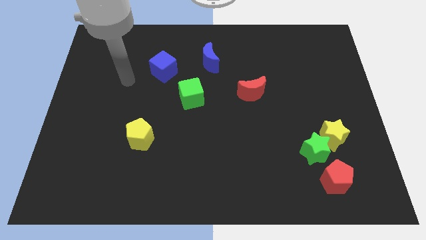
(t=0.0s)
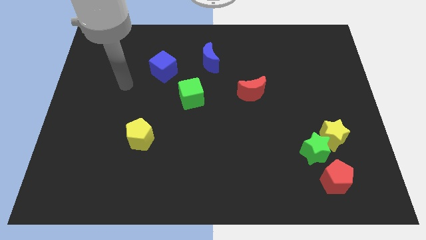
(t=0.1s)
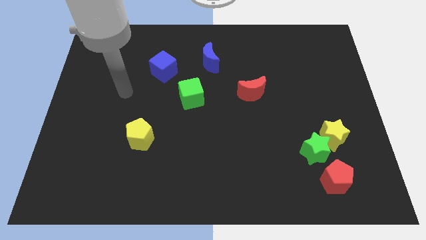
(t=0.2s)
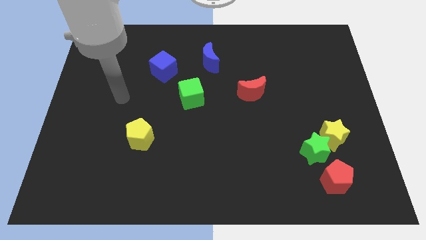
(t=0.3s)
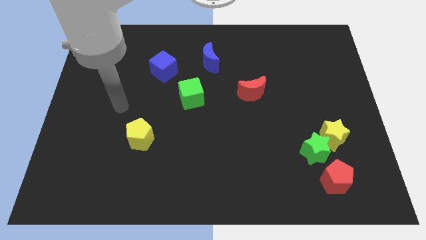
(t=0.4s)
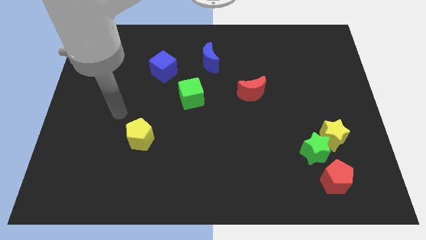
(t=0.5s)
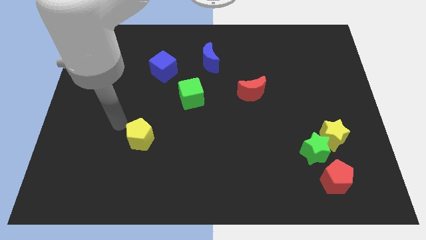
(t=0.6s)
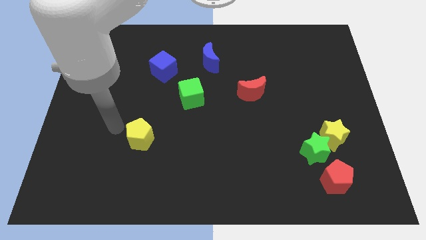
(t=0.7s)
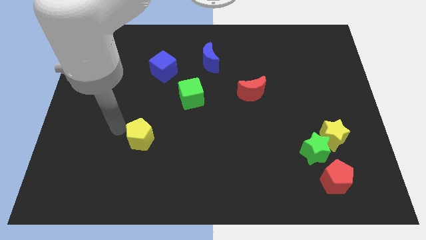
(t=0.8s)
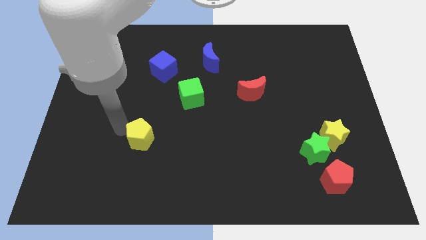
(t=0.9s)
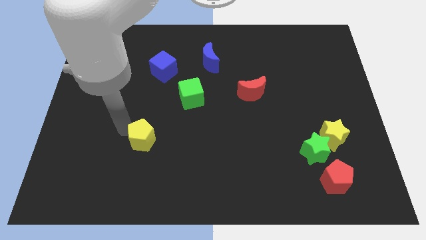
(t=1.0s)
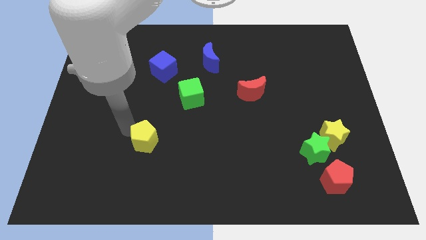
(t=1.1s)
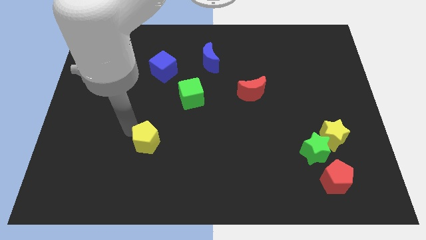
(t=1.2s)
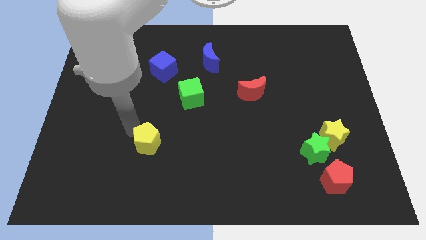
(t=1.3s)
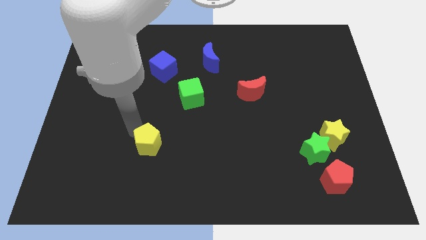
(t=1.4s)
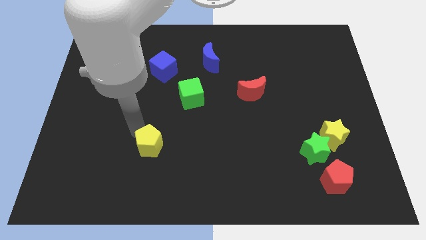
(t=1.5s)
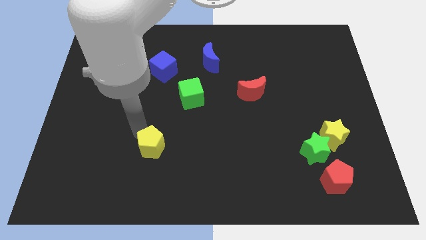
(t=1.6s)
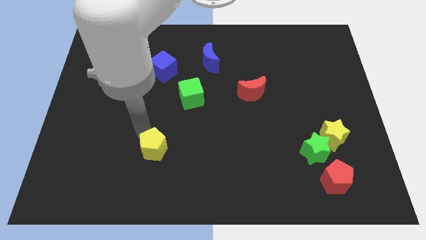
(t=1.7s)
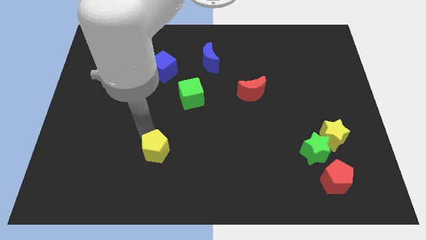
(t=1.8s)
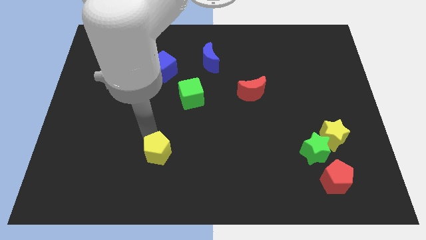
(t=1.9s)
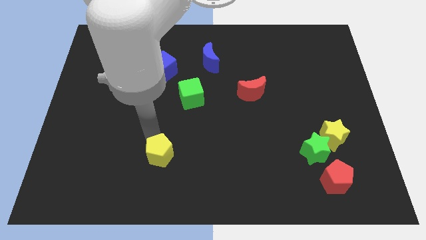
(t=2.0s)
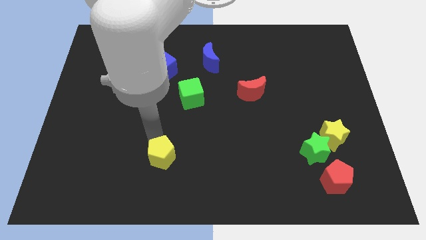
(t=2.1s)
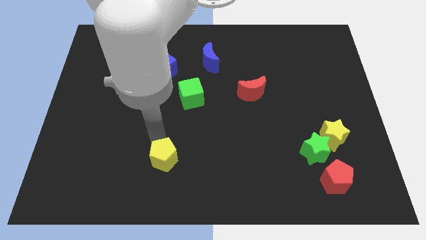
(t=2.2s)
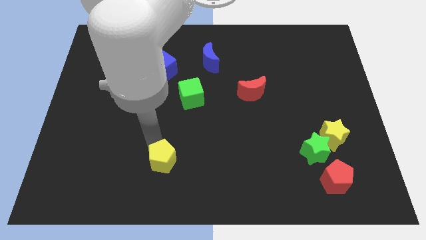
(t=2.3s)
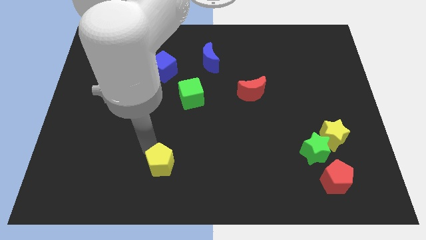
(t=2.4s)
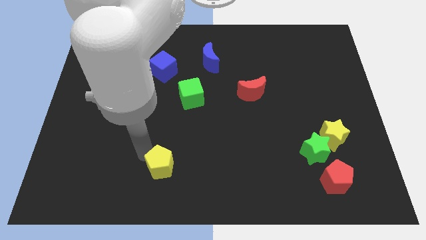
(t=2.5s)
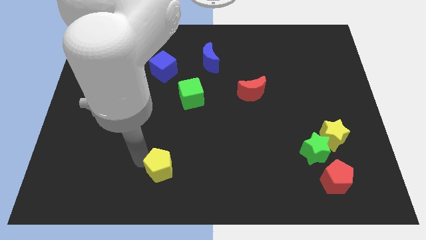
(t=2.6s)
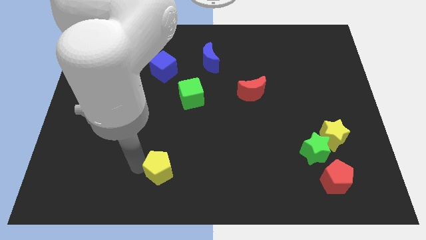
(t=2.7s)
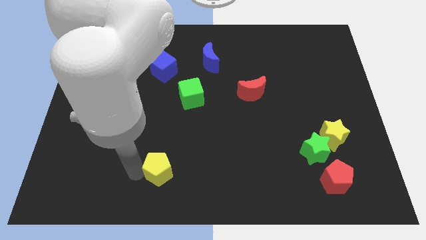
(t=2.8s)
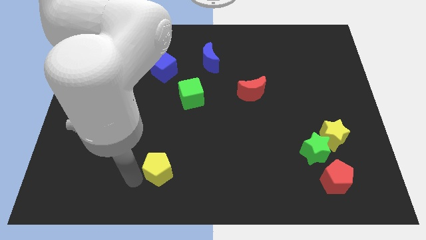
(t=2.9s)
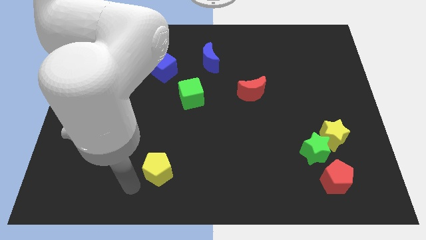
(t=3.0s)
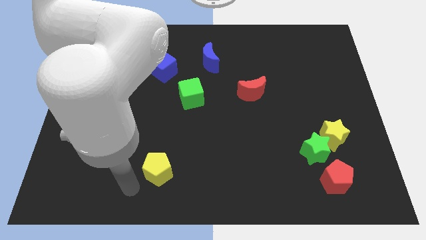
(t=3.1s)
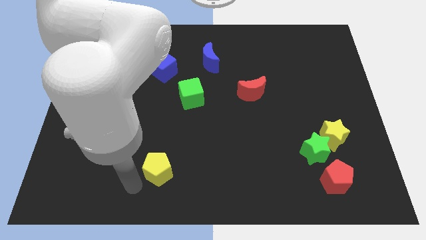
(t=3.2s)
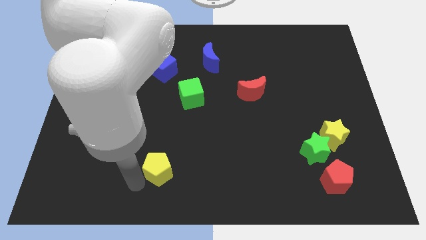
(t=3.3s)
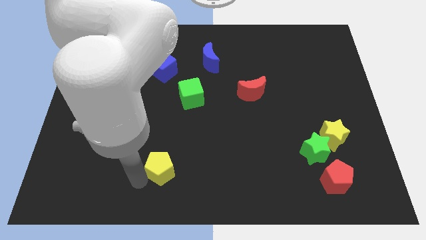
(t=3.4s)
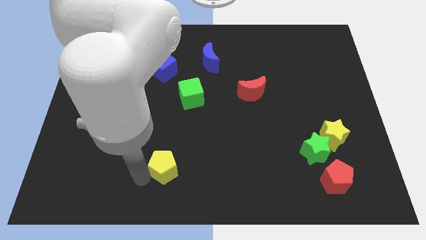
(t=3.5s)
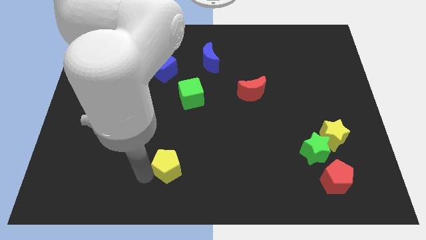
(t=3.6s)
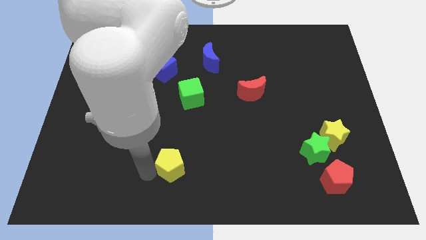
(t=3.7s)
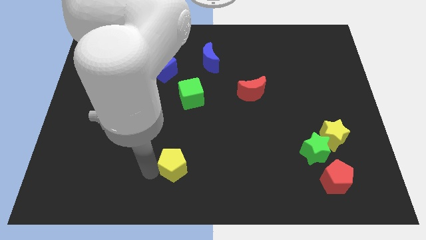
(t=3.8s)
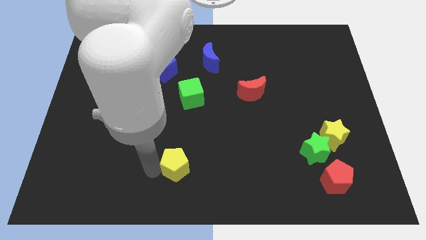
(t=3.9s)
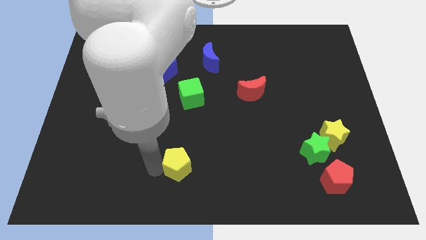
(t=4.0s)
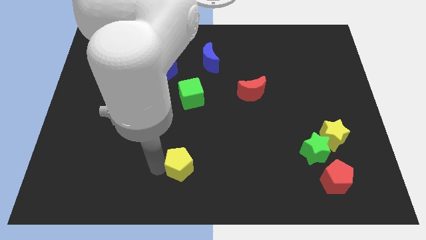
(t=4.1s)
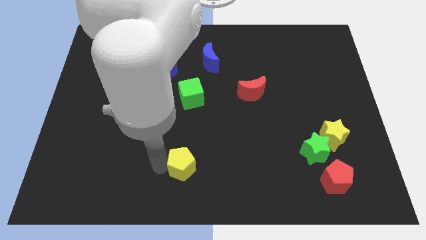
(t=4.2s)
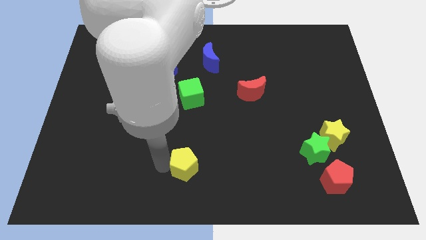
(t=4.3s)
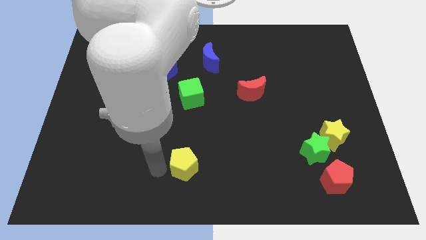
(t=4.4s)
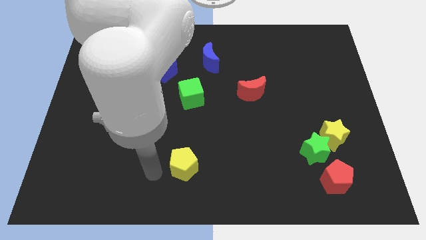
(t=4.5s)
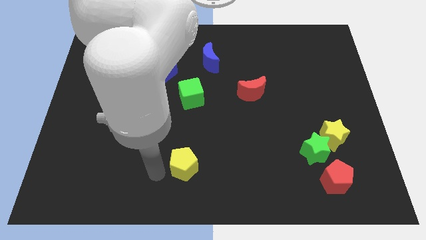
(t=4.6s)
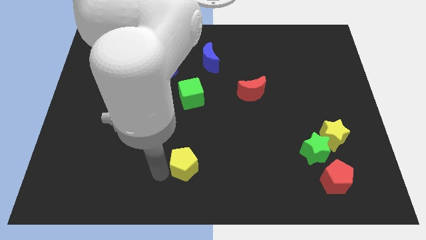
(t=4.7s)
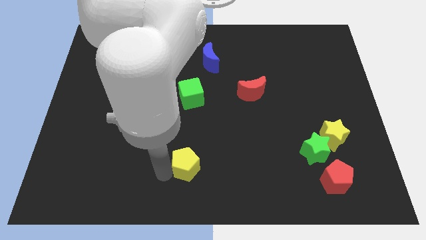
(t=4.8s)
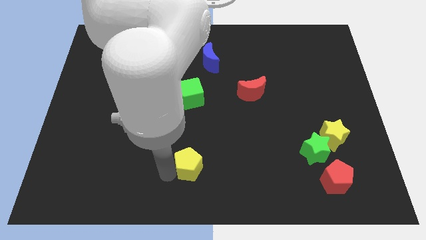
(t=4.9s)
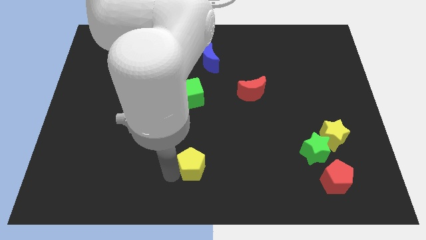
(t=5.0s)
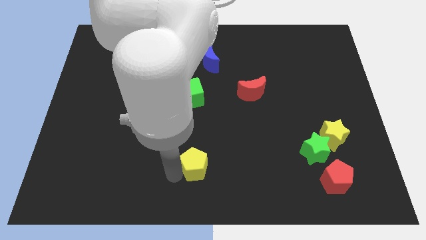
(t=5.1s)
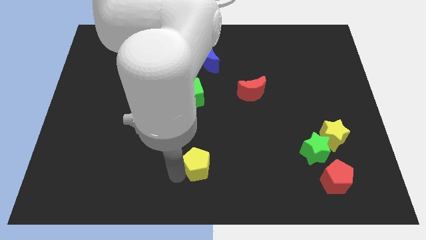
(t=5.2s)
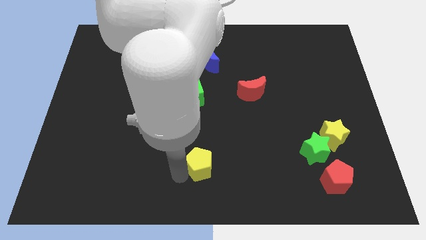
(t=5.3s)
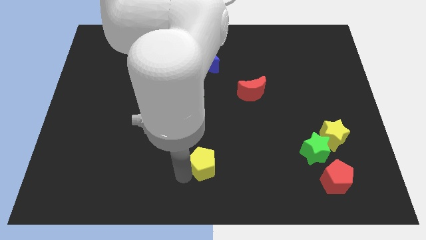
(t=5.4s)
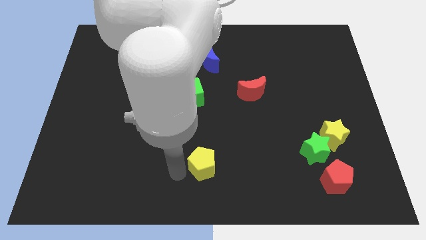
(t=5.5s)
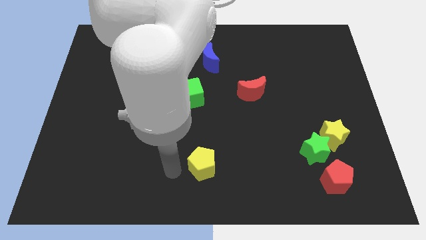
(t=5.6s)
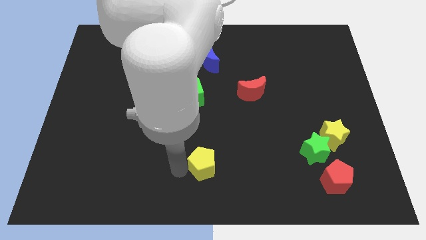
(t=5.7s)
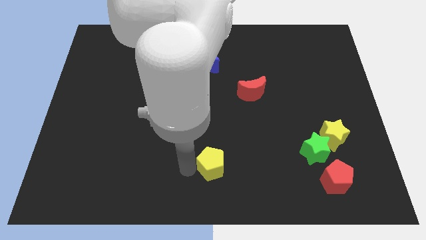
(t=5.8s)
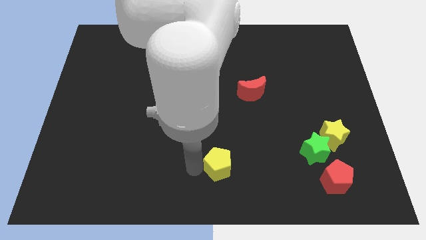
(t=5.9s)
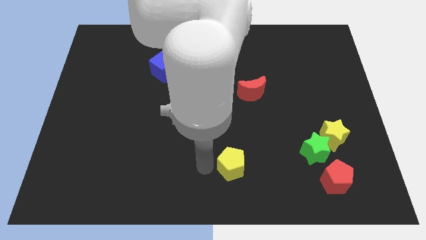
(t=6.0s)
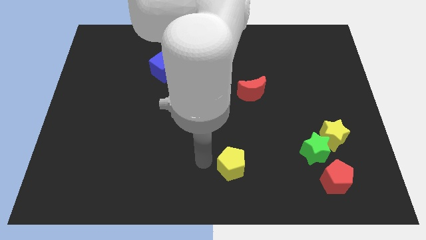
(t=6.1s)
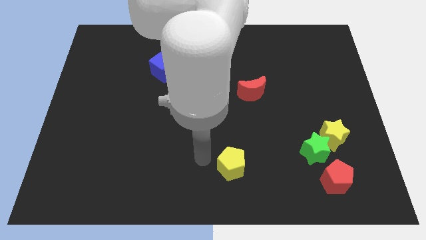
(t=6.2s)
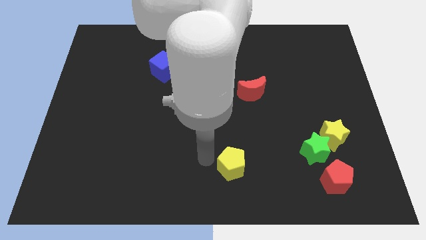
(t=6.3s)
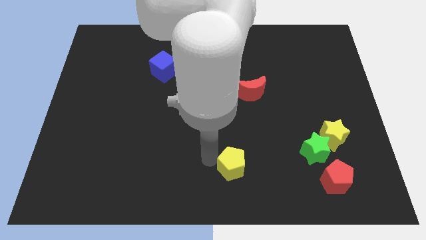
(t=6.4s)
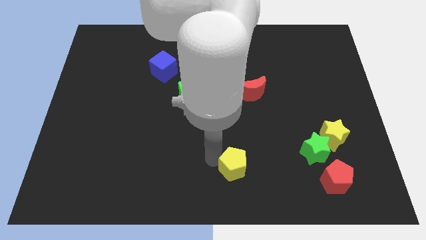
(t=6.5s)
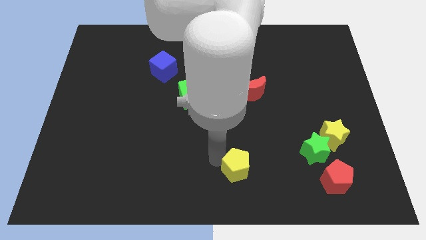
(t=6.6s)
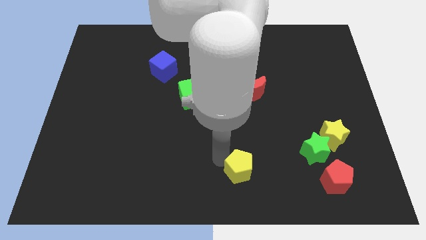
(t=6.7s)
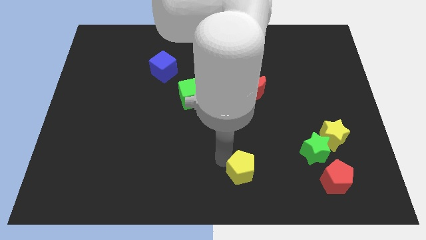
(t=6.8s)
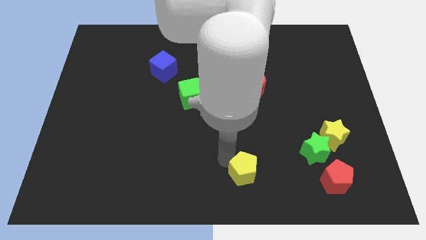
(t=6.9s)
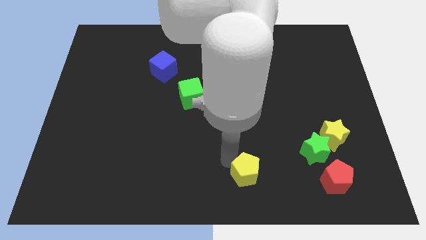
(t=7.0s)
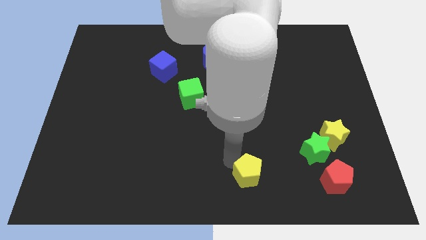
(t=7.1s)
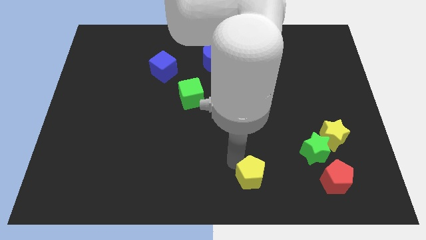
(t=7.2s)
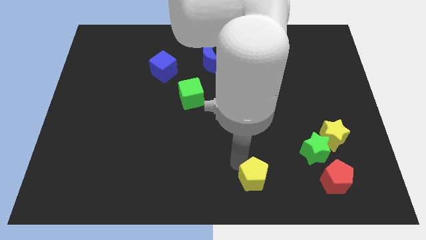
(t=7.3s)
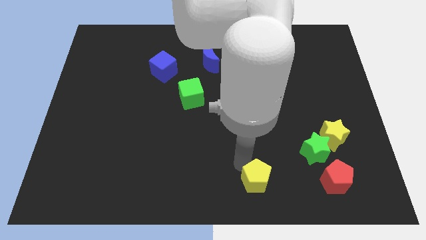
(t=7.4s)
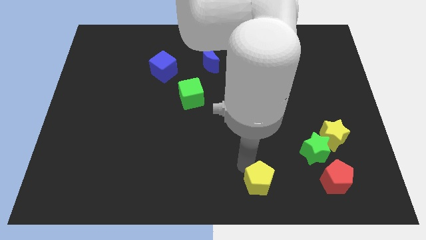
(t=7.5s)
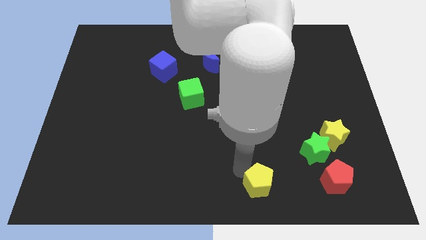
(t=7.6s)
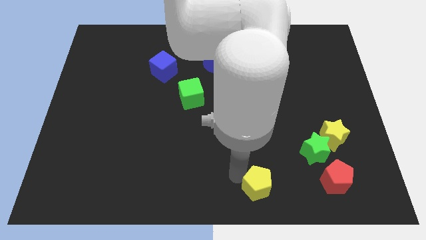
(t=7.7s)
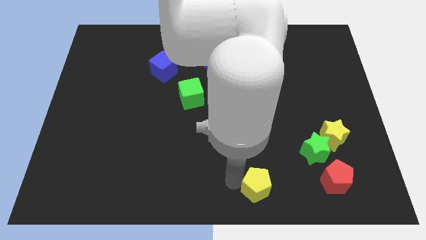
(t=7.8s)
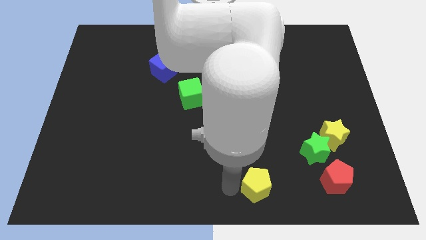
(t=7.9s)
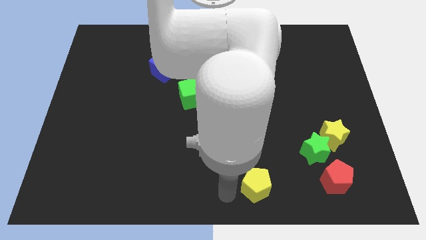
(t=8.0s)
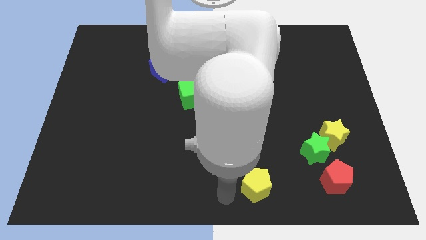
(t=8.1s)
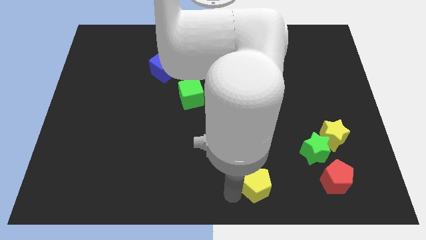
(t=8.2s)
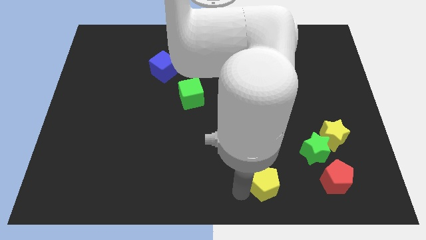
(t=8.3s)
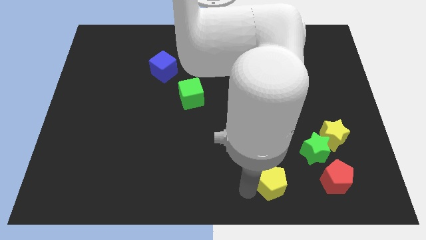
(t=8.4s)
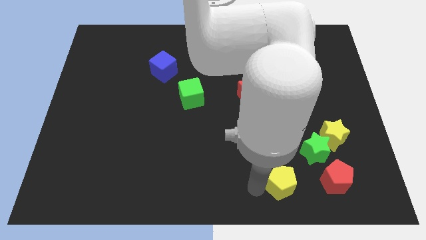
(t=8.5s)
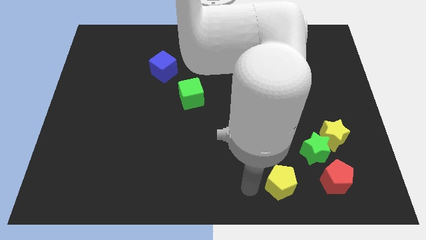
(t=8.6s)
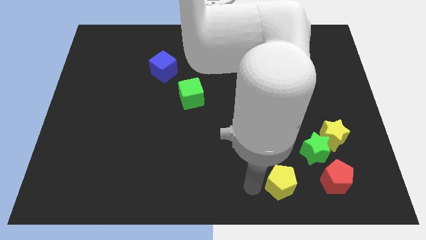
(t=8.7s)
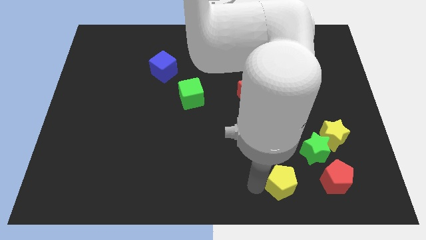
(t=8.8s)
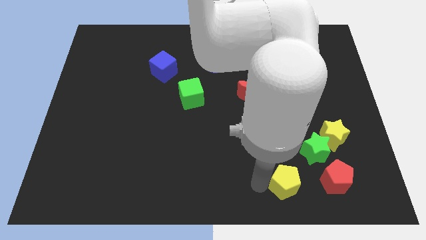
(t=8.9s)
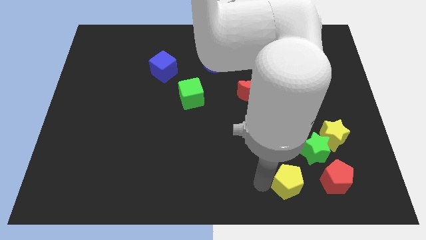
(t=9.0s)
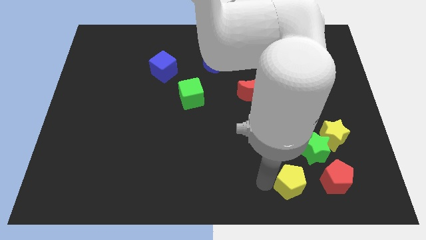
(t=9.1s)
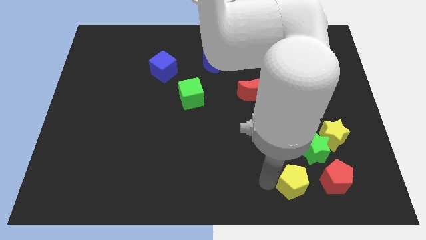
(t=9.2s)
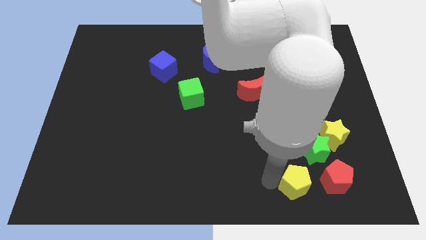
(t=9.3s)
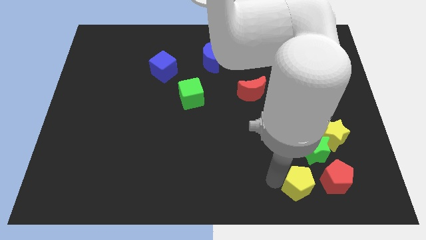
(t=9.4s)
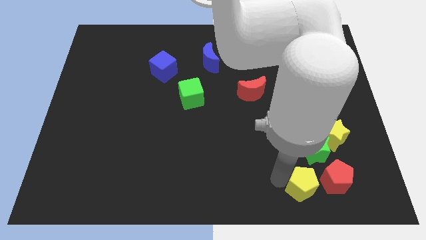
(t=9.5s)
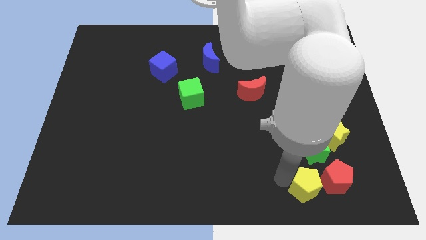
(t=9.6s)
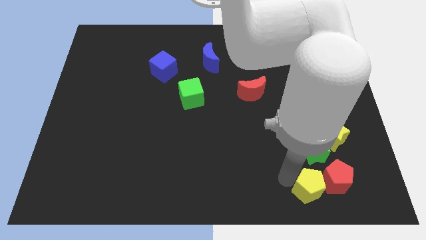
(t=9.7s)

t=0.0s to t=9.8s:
put the yellow pentagon next to the red pentagon
